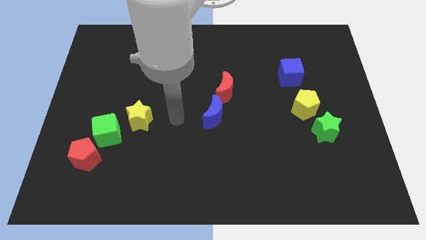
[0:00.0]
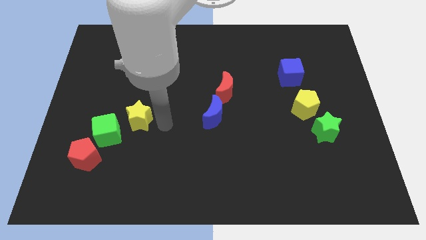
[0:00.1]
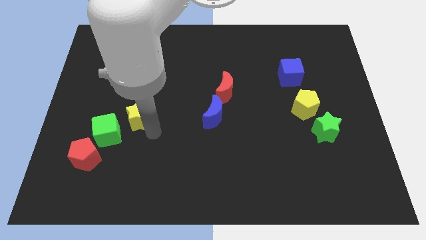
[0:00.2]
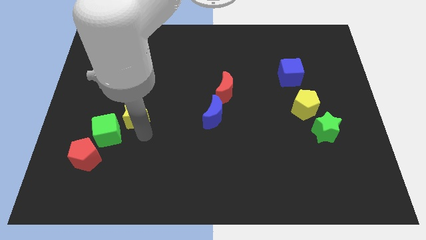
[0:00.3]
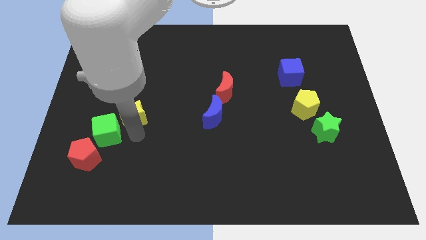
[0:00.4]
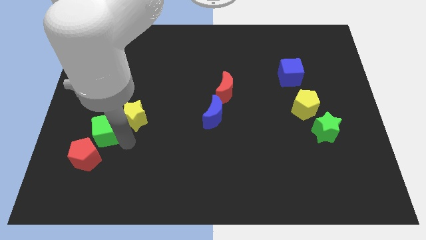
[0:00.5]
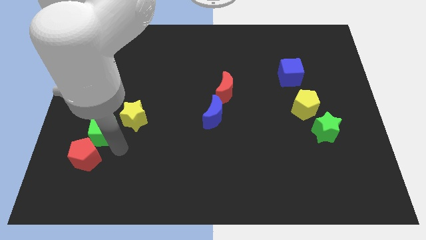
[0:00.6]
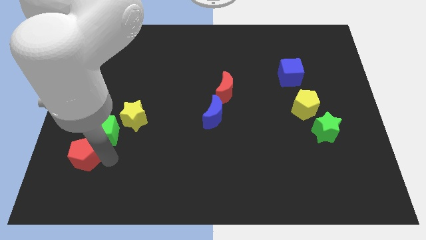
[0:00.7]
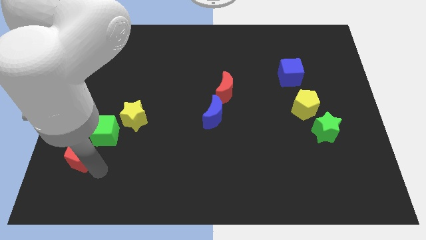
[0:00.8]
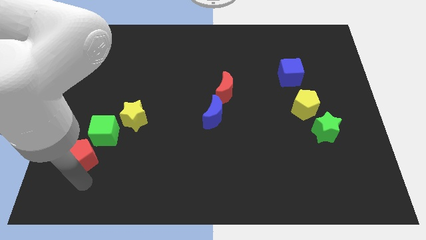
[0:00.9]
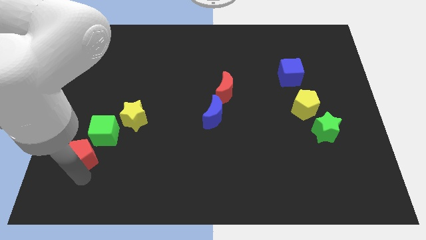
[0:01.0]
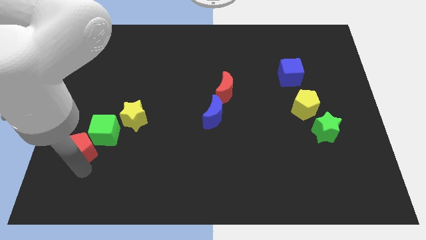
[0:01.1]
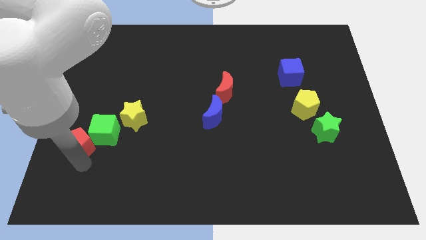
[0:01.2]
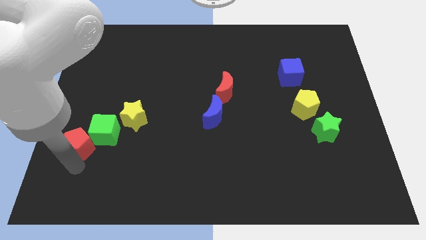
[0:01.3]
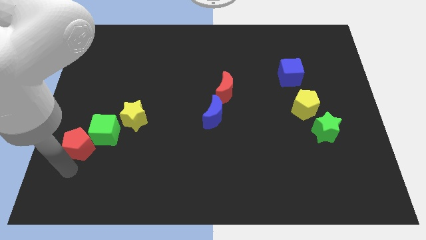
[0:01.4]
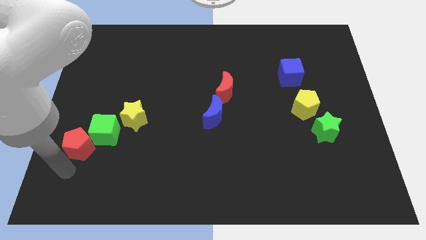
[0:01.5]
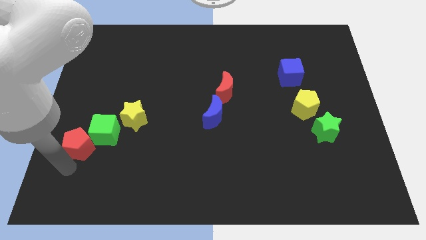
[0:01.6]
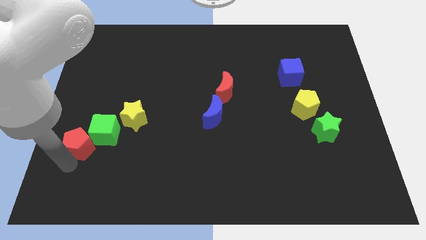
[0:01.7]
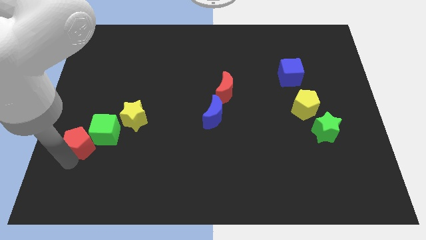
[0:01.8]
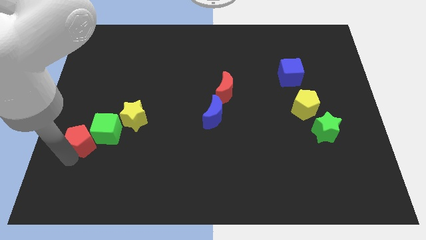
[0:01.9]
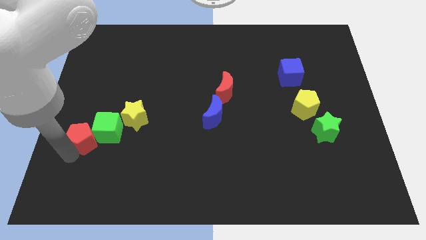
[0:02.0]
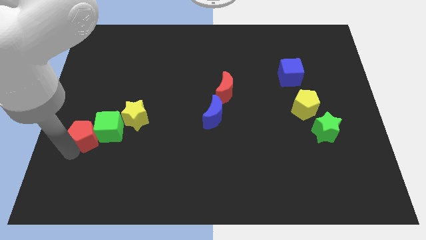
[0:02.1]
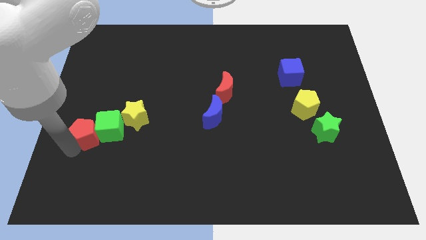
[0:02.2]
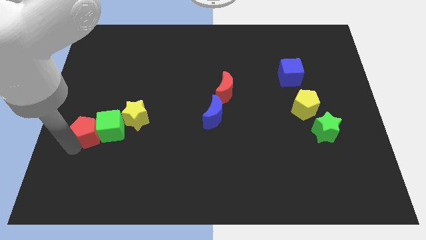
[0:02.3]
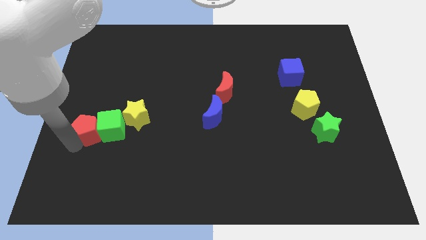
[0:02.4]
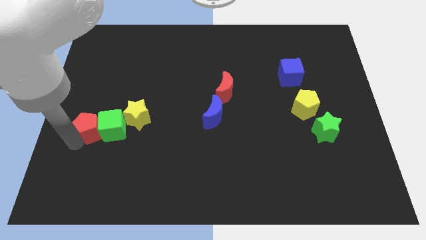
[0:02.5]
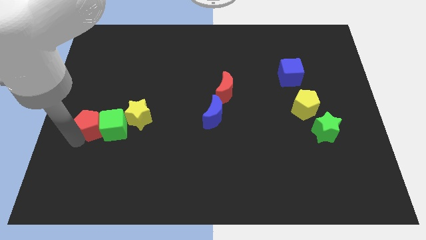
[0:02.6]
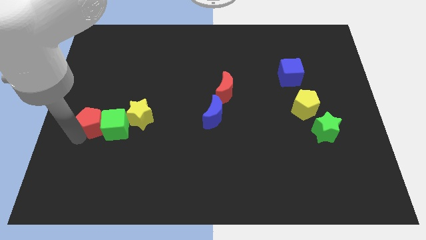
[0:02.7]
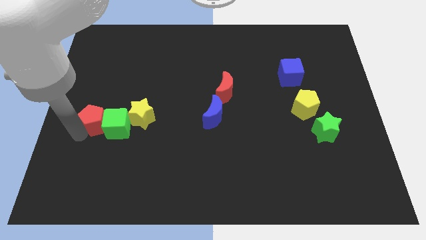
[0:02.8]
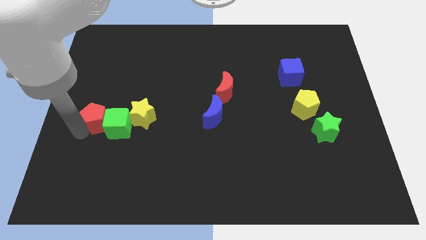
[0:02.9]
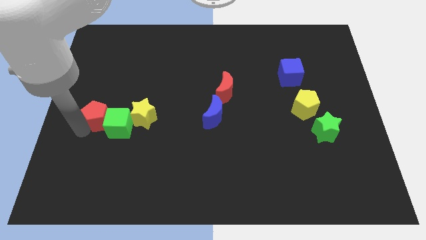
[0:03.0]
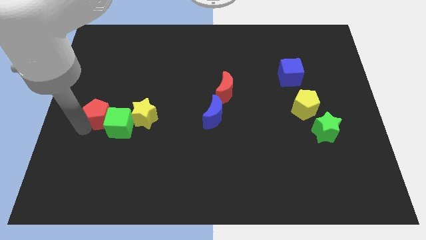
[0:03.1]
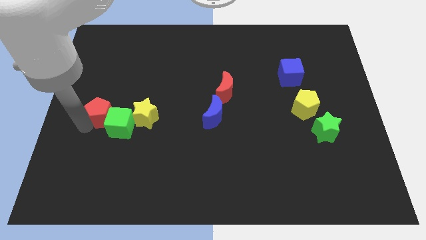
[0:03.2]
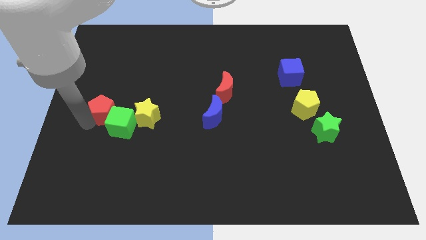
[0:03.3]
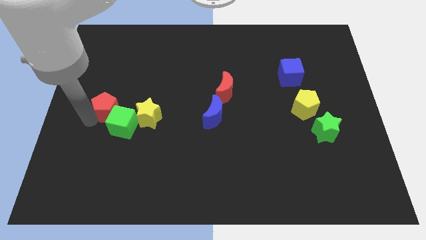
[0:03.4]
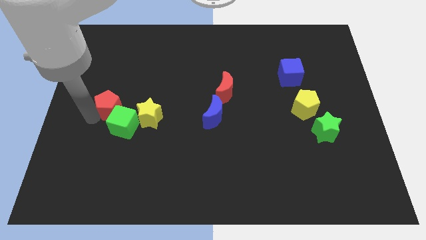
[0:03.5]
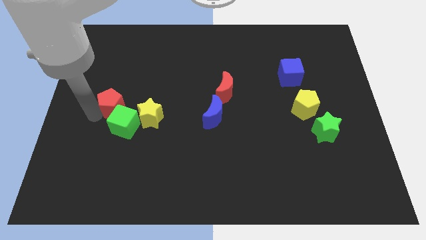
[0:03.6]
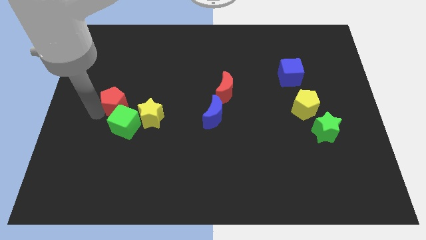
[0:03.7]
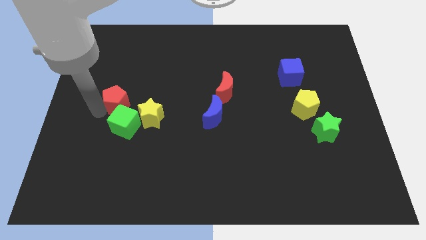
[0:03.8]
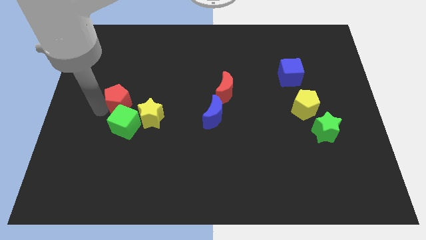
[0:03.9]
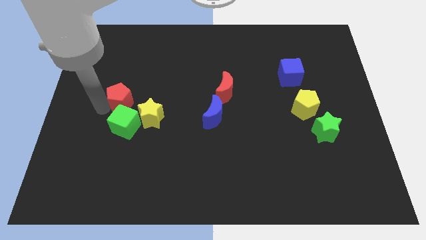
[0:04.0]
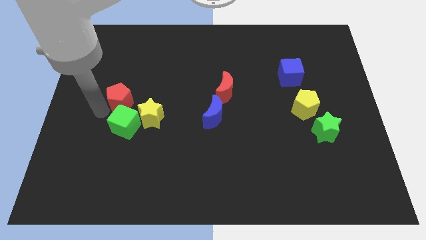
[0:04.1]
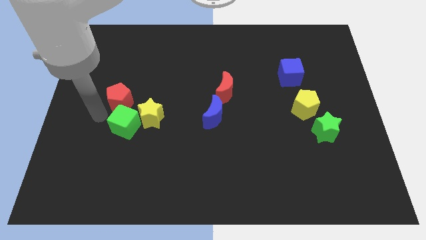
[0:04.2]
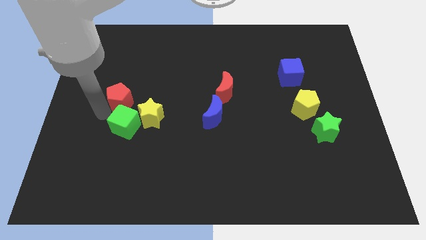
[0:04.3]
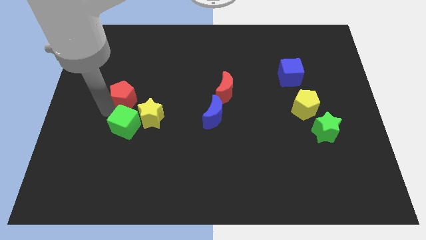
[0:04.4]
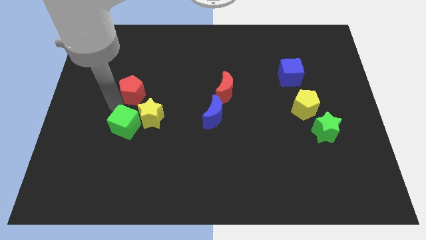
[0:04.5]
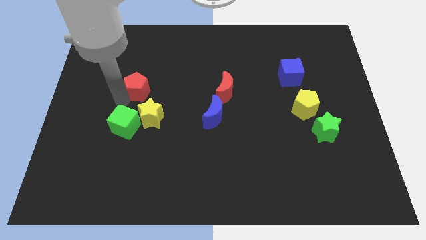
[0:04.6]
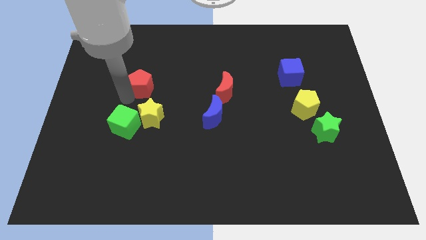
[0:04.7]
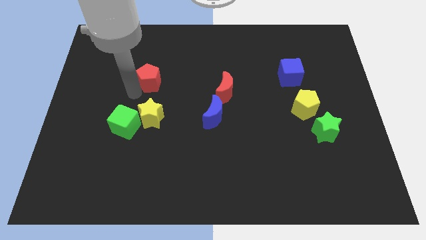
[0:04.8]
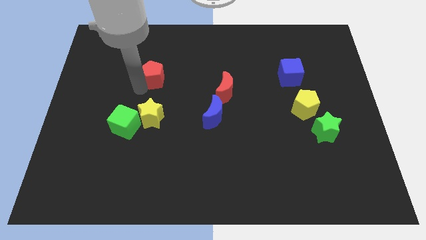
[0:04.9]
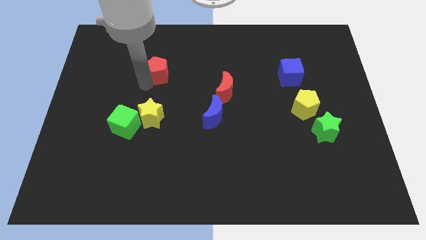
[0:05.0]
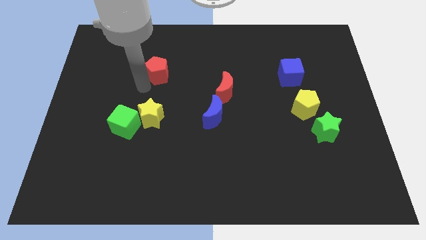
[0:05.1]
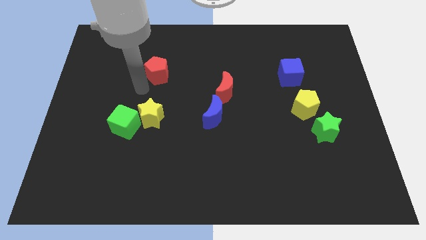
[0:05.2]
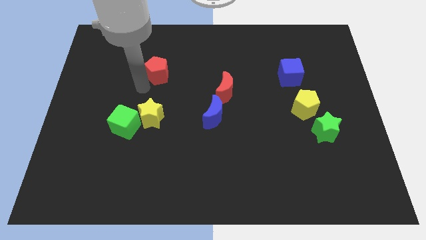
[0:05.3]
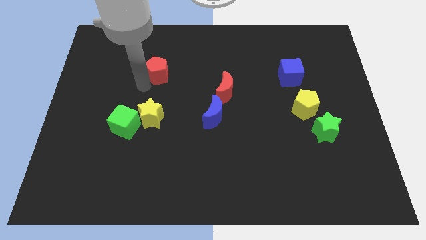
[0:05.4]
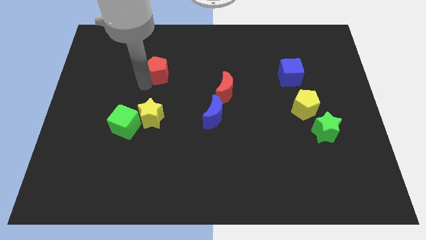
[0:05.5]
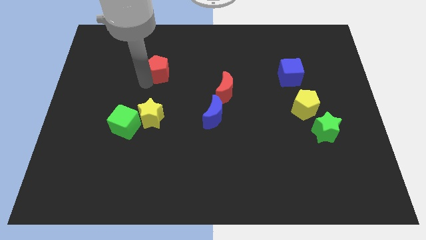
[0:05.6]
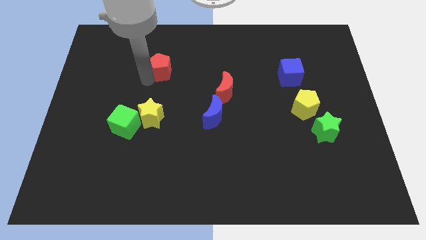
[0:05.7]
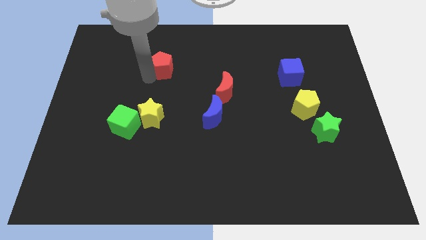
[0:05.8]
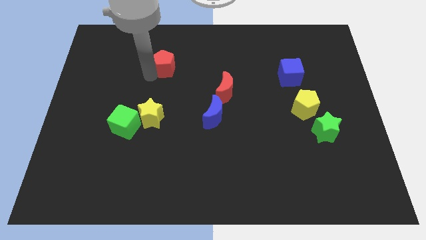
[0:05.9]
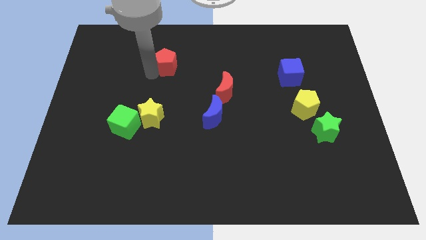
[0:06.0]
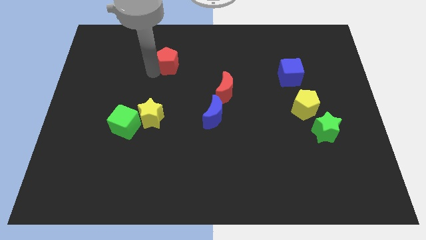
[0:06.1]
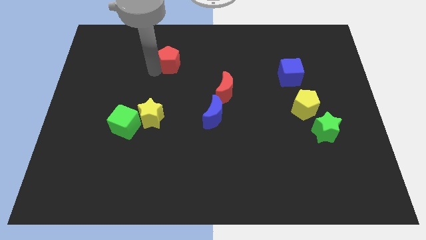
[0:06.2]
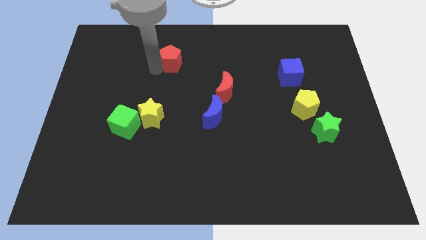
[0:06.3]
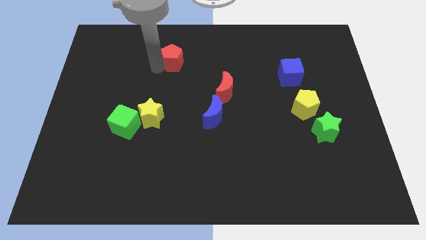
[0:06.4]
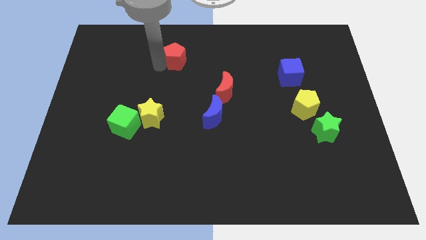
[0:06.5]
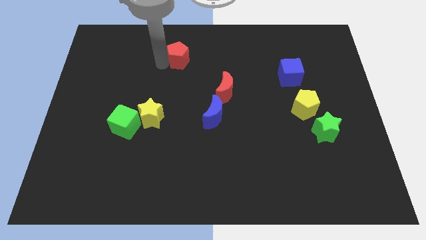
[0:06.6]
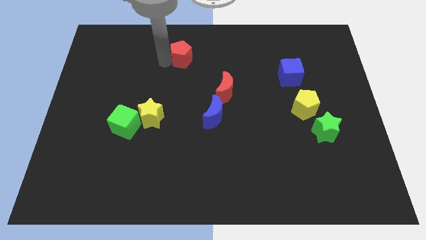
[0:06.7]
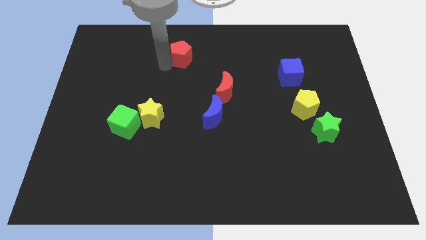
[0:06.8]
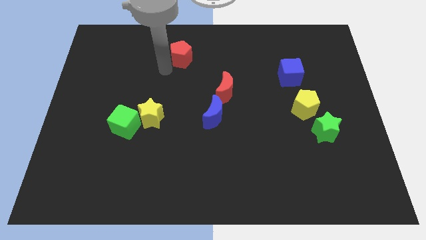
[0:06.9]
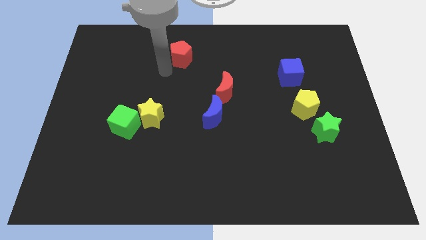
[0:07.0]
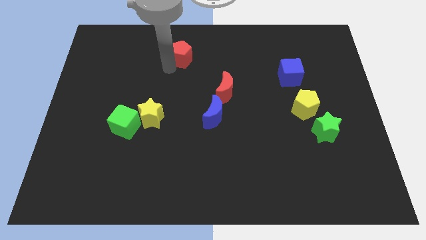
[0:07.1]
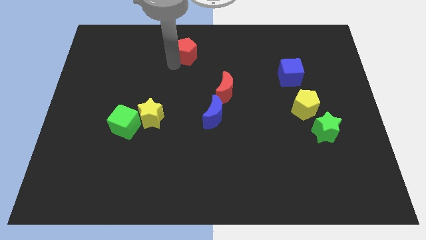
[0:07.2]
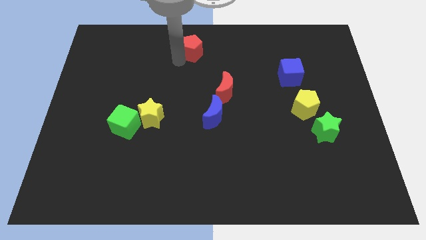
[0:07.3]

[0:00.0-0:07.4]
push the red pentagon to the top side
